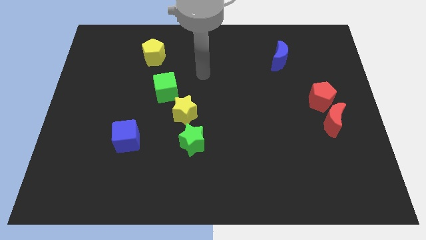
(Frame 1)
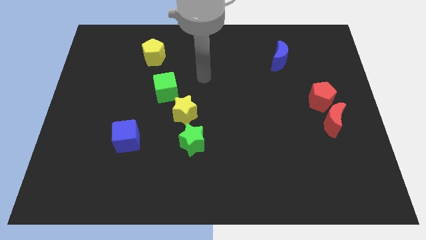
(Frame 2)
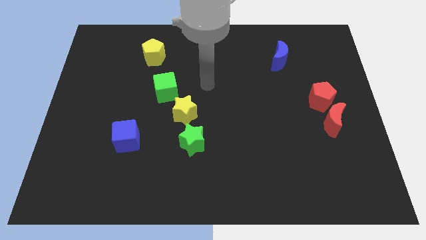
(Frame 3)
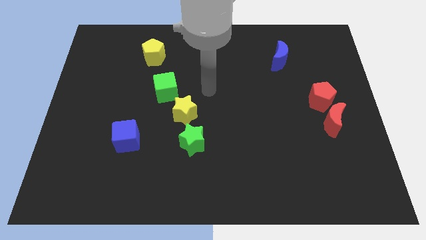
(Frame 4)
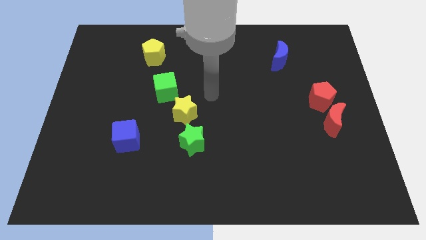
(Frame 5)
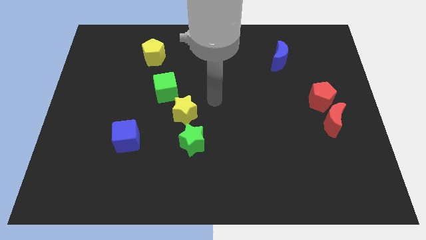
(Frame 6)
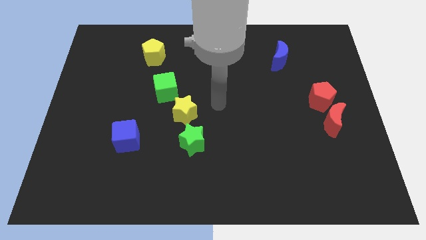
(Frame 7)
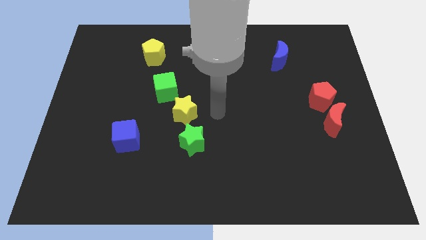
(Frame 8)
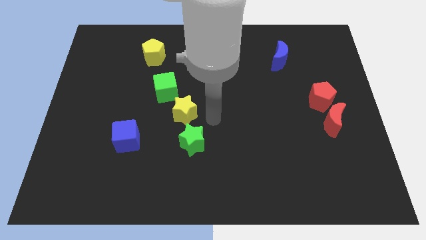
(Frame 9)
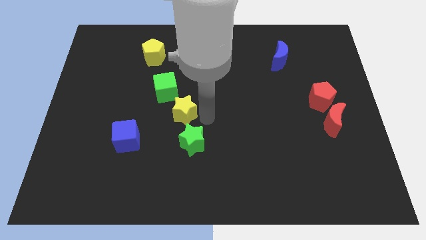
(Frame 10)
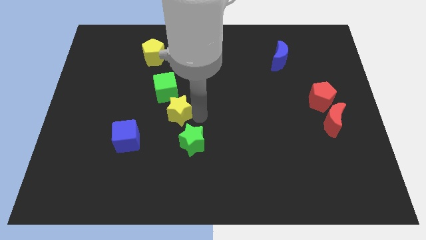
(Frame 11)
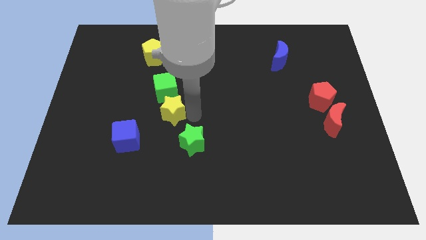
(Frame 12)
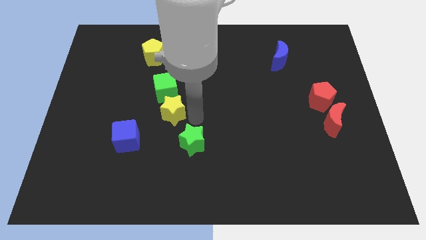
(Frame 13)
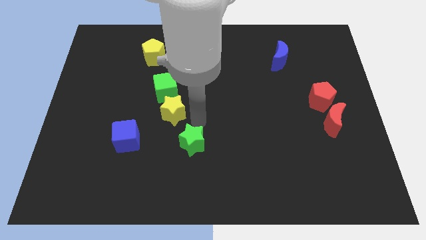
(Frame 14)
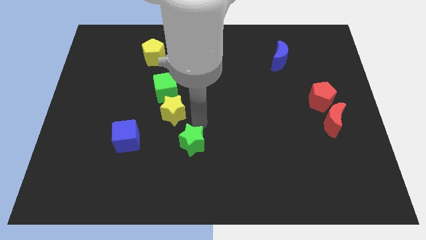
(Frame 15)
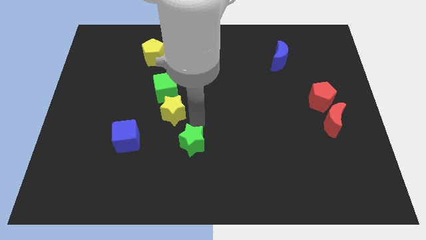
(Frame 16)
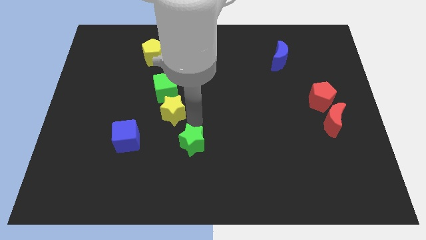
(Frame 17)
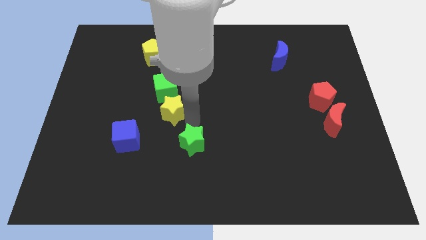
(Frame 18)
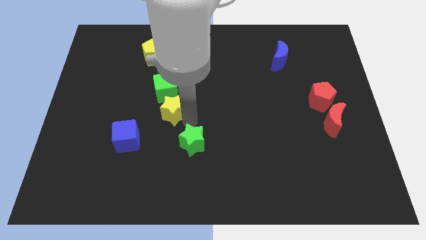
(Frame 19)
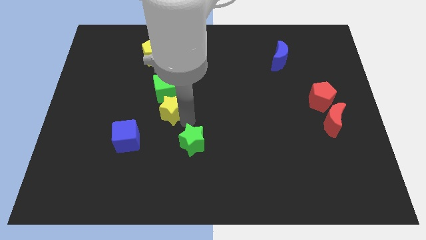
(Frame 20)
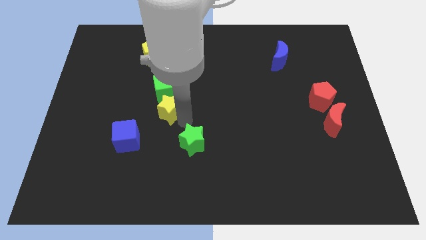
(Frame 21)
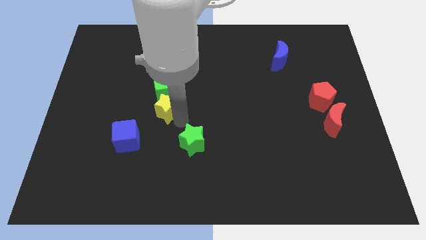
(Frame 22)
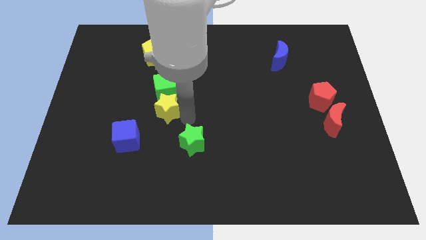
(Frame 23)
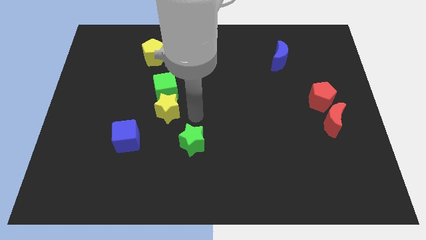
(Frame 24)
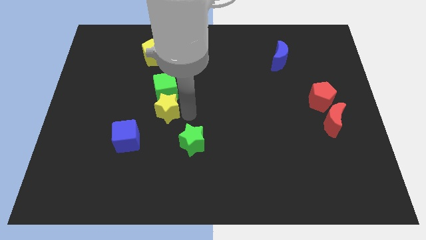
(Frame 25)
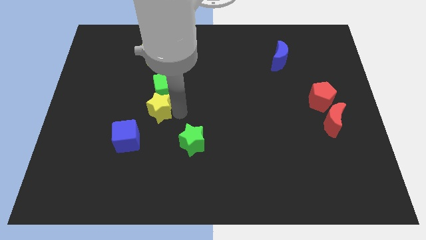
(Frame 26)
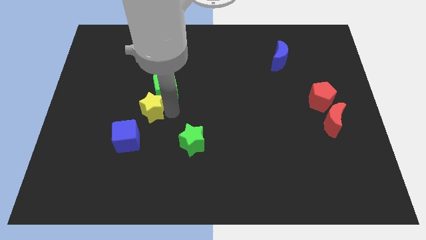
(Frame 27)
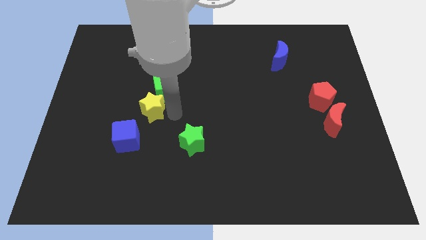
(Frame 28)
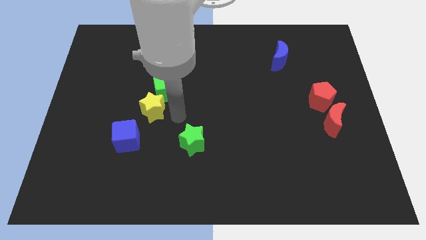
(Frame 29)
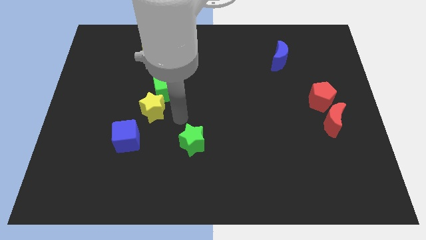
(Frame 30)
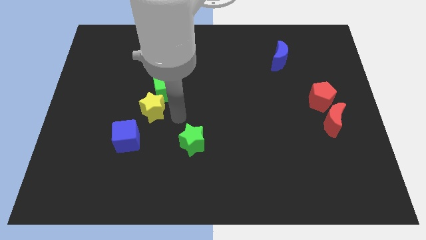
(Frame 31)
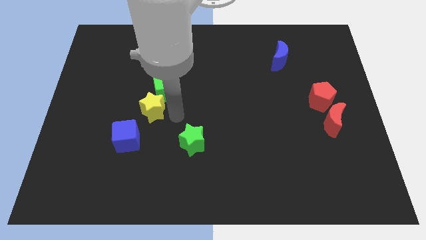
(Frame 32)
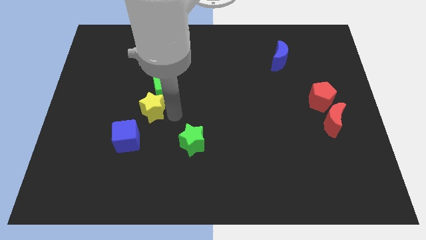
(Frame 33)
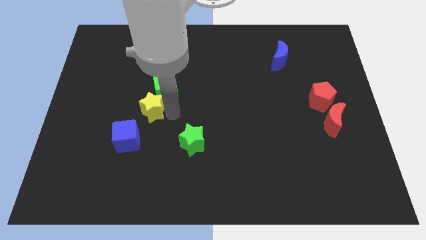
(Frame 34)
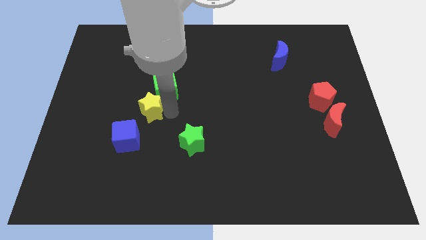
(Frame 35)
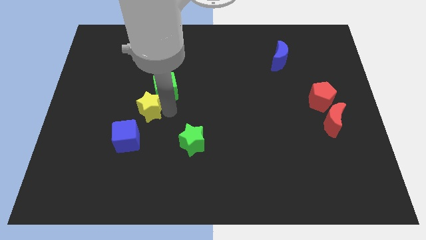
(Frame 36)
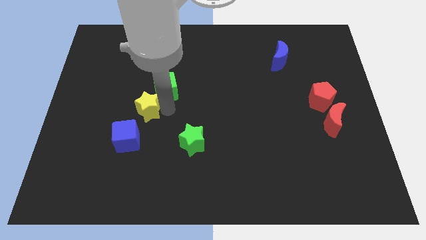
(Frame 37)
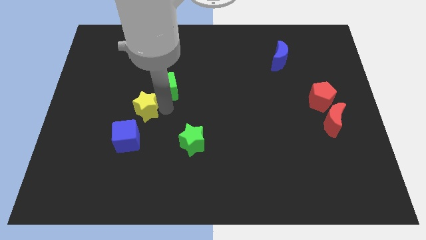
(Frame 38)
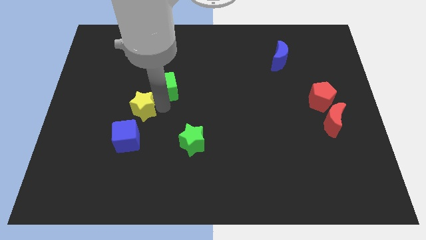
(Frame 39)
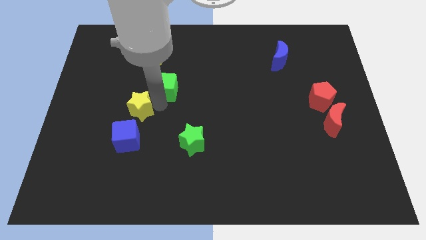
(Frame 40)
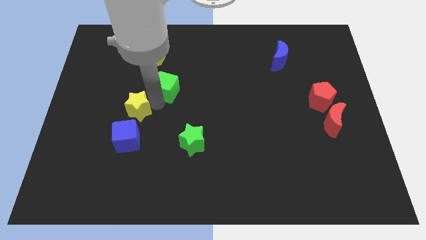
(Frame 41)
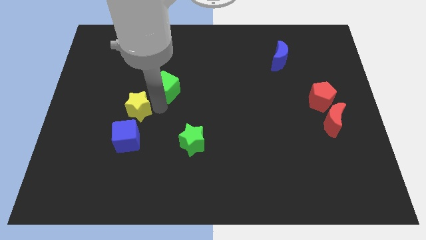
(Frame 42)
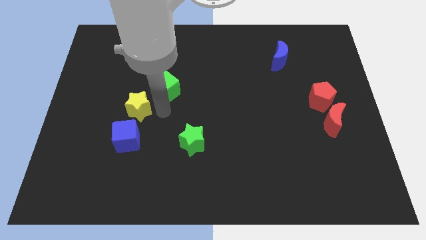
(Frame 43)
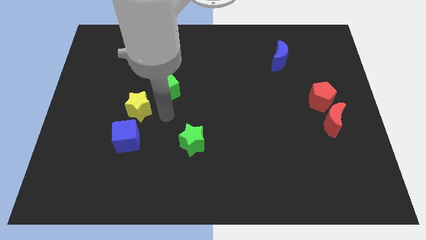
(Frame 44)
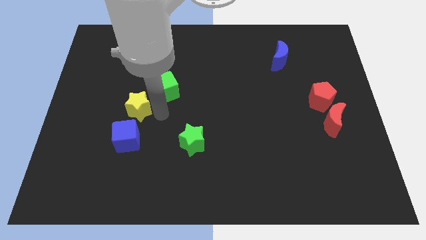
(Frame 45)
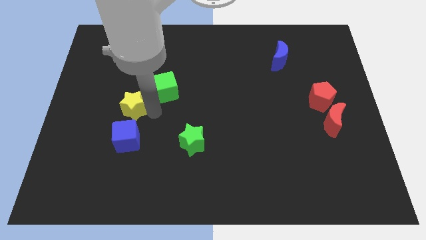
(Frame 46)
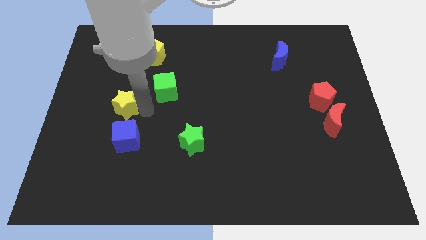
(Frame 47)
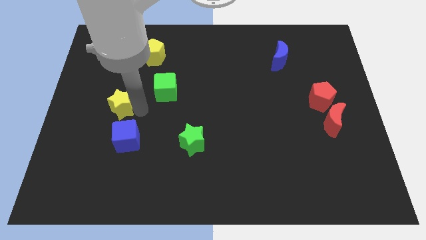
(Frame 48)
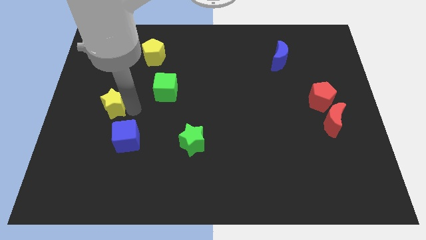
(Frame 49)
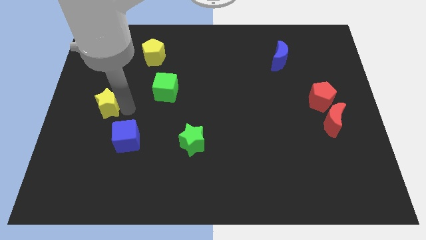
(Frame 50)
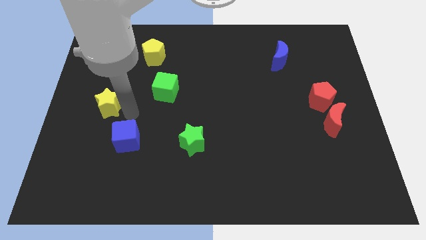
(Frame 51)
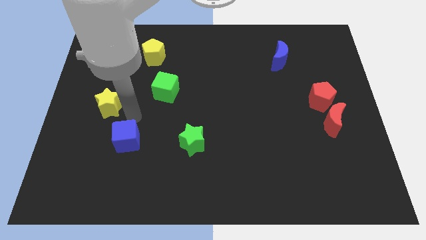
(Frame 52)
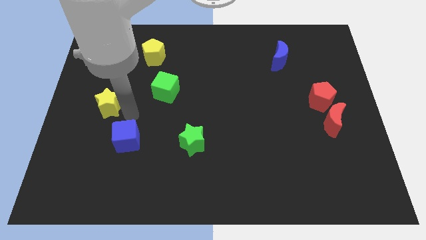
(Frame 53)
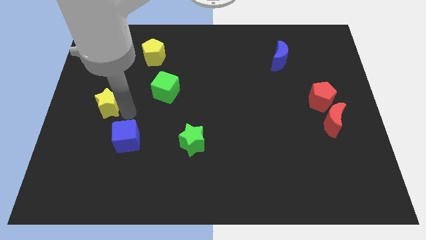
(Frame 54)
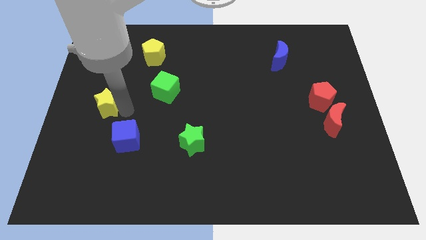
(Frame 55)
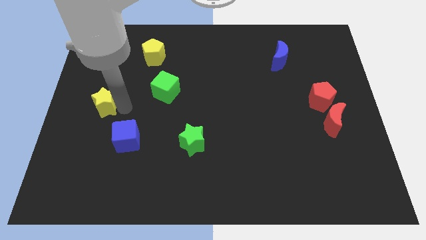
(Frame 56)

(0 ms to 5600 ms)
move the yellow star to the left side of the board

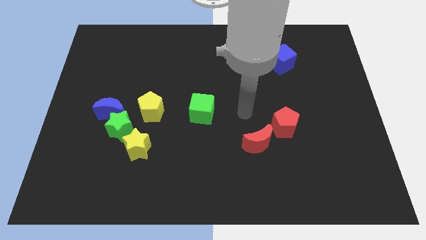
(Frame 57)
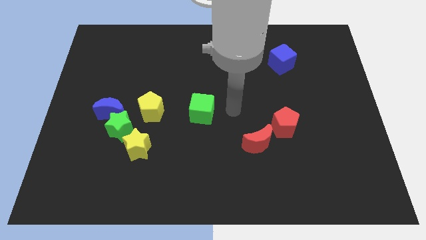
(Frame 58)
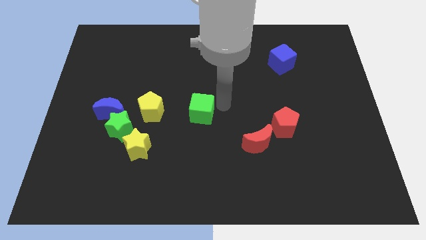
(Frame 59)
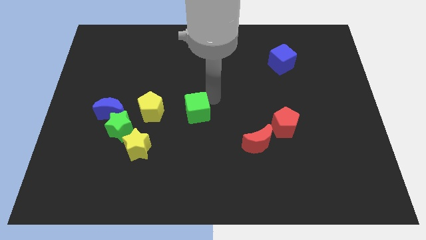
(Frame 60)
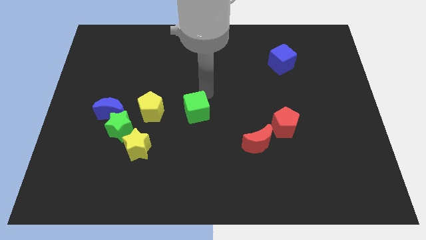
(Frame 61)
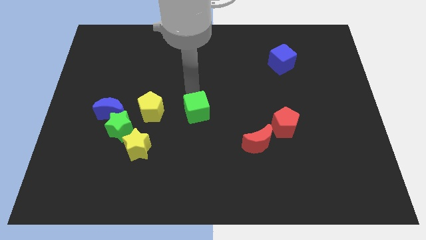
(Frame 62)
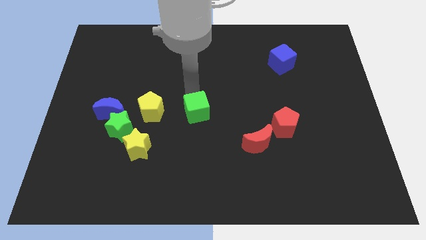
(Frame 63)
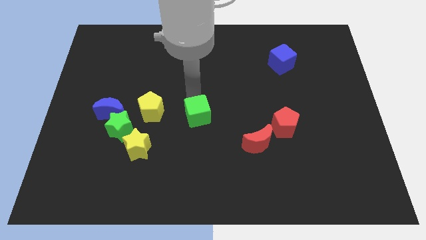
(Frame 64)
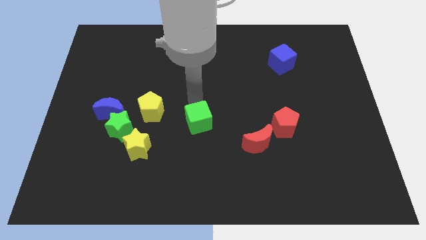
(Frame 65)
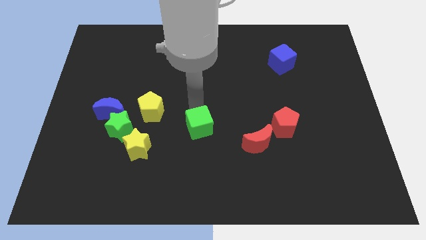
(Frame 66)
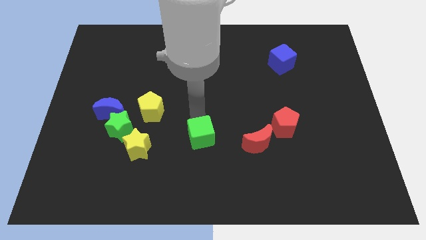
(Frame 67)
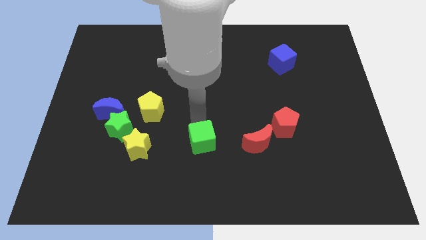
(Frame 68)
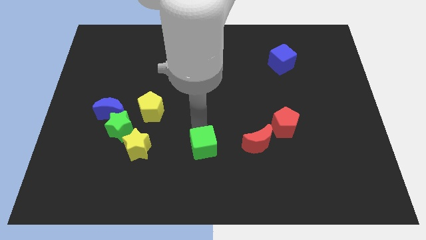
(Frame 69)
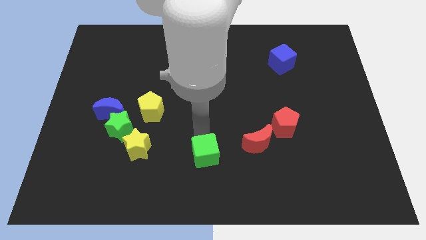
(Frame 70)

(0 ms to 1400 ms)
push the green cube to the bottom
